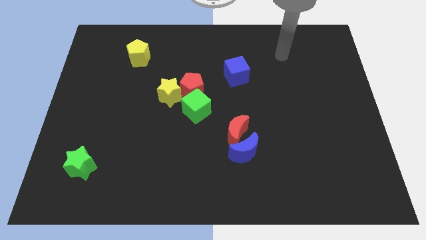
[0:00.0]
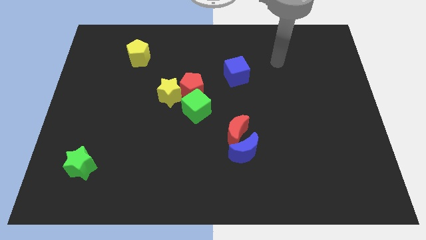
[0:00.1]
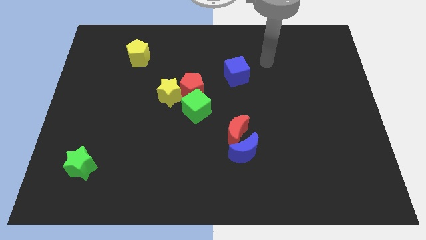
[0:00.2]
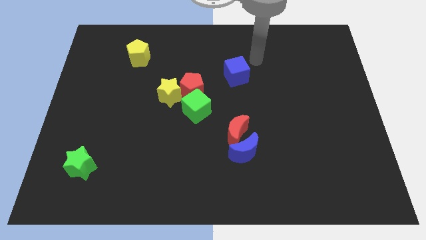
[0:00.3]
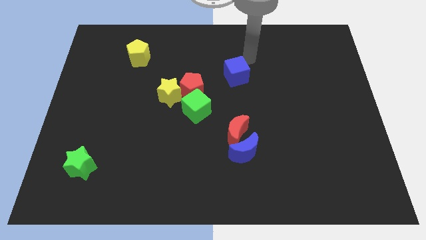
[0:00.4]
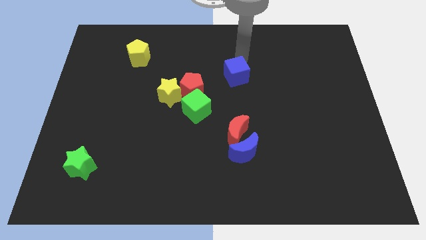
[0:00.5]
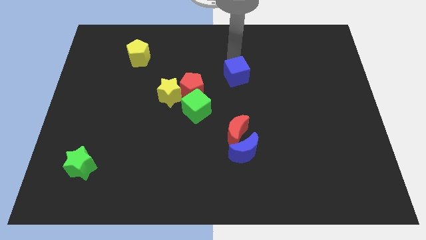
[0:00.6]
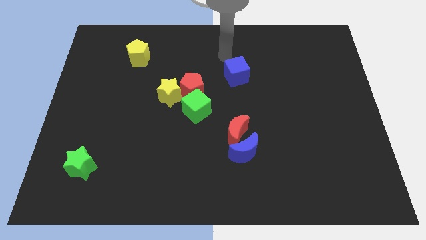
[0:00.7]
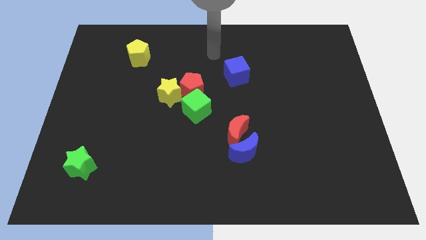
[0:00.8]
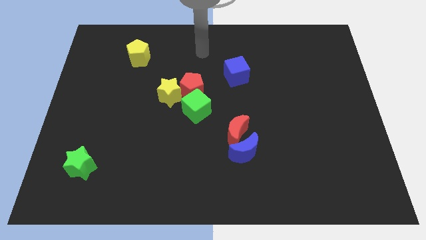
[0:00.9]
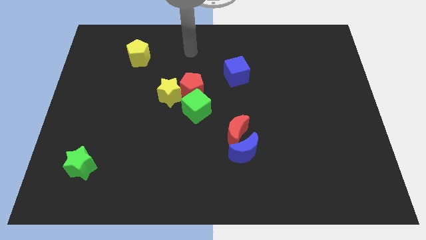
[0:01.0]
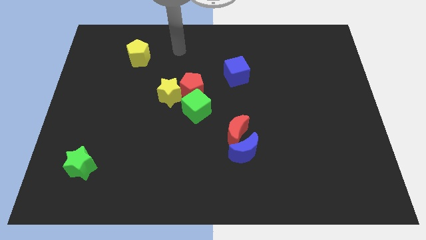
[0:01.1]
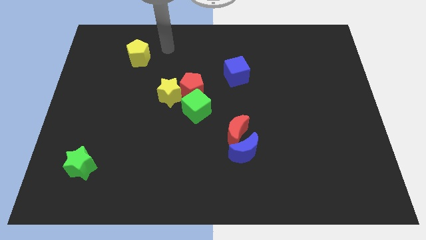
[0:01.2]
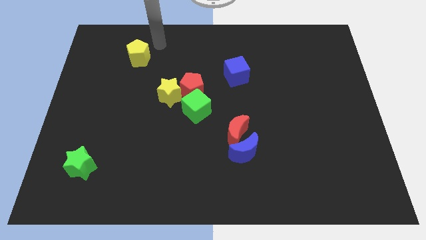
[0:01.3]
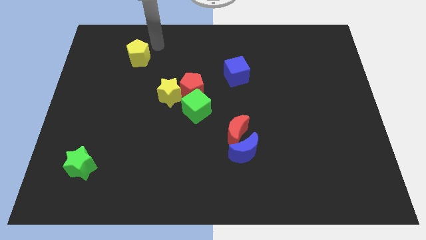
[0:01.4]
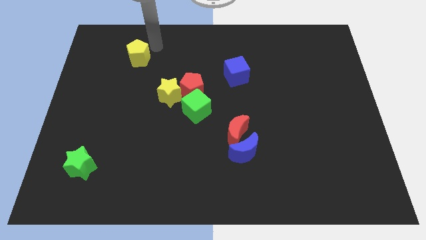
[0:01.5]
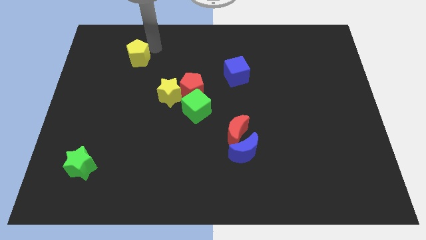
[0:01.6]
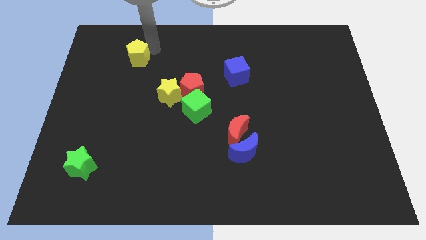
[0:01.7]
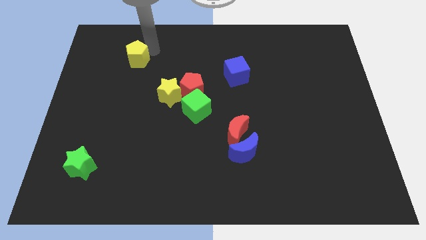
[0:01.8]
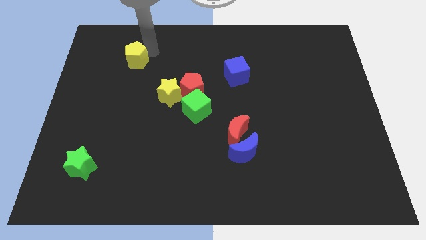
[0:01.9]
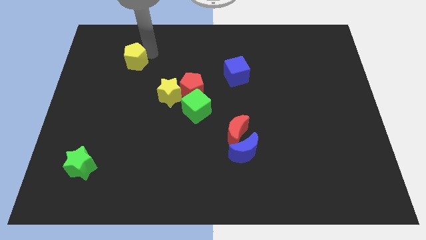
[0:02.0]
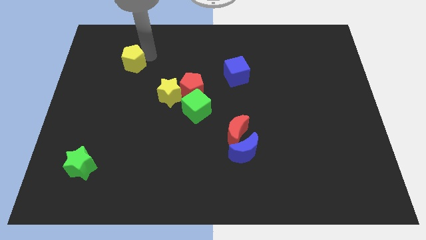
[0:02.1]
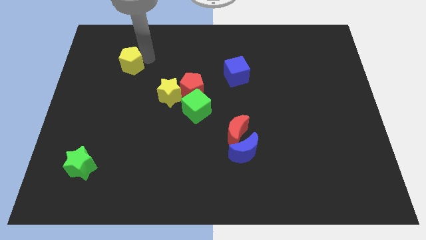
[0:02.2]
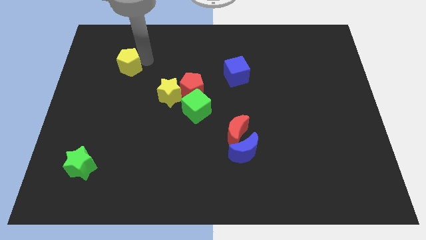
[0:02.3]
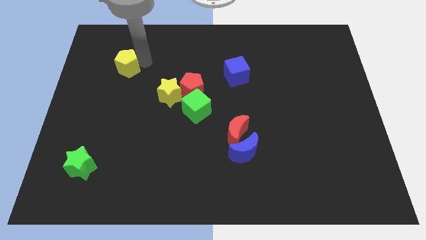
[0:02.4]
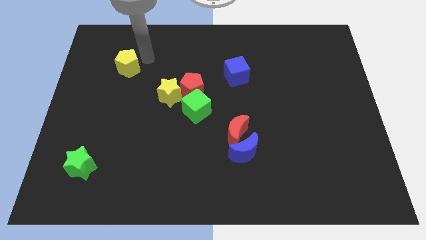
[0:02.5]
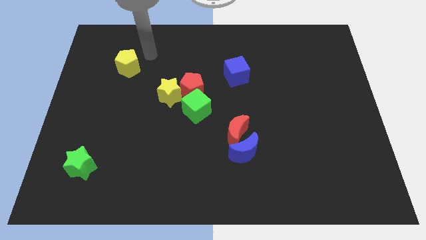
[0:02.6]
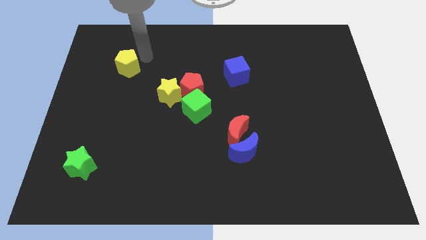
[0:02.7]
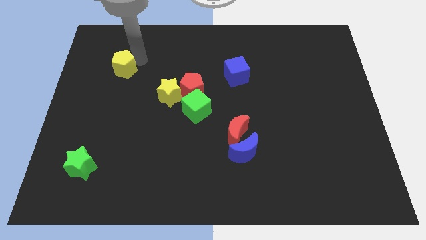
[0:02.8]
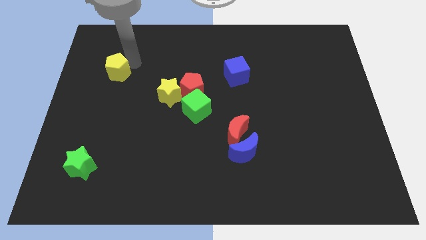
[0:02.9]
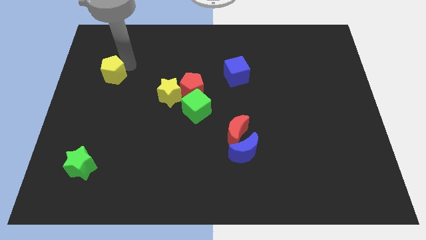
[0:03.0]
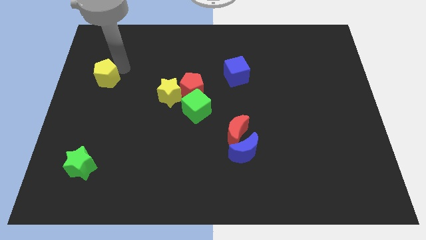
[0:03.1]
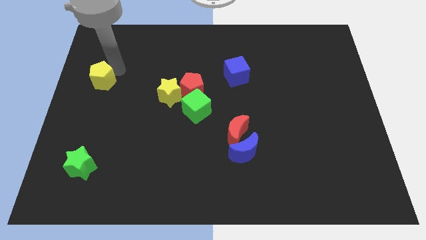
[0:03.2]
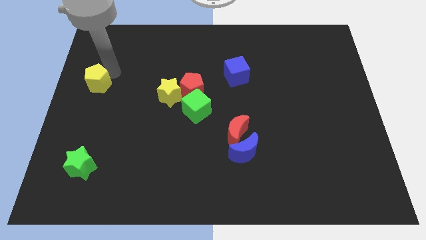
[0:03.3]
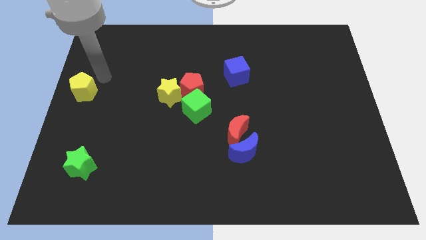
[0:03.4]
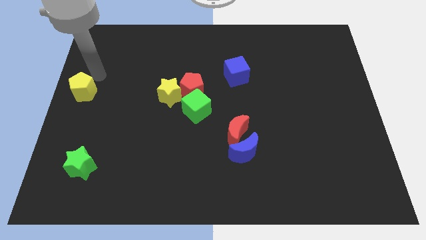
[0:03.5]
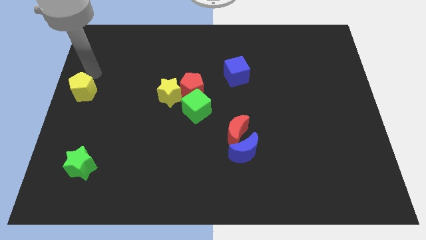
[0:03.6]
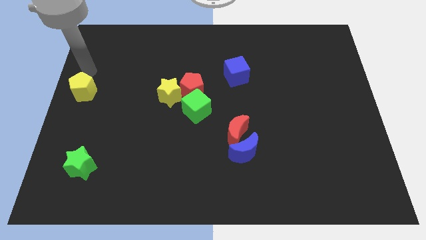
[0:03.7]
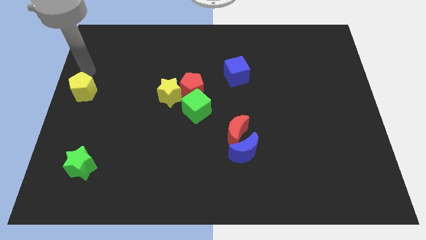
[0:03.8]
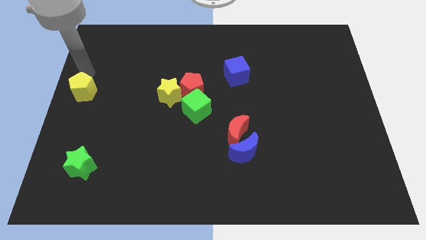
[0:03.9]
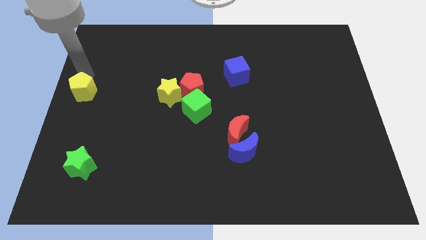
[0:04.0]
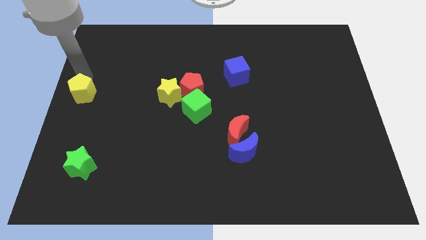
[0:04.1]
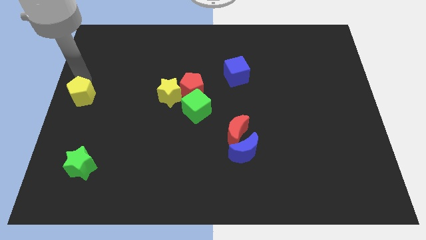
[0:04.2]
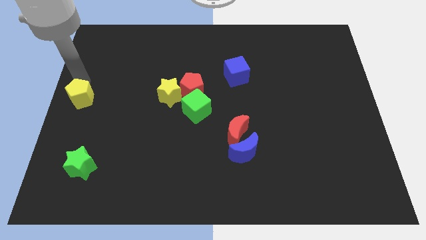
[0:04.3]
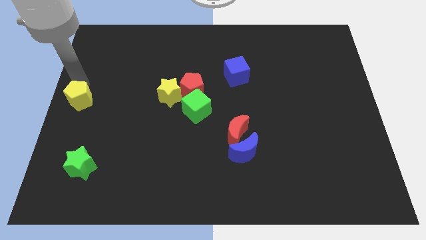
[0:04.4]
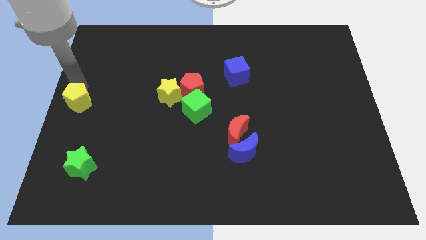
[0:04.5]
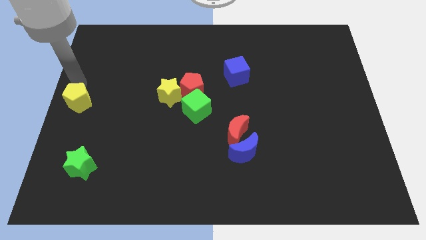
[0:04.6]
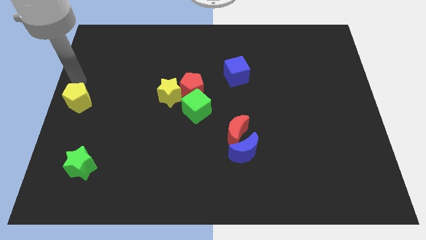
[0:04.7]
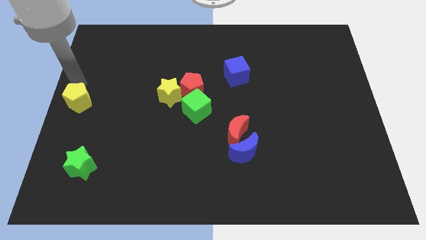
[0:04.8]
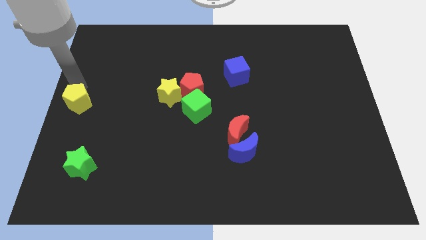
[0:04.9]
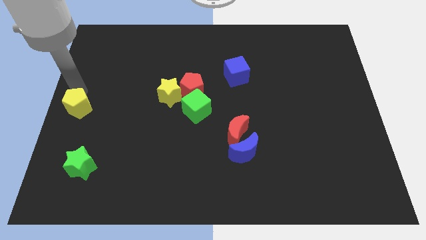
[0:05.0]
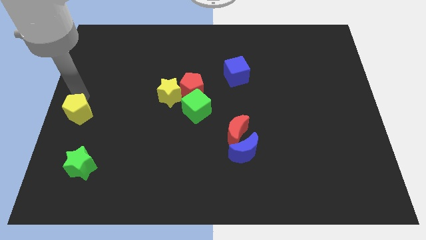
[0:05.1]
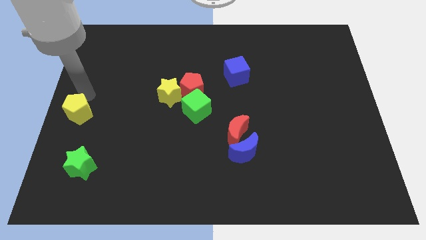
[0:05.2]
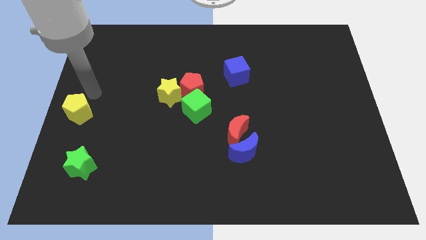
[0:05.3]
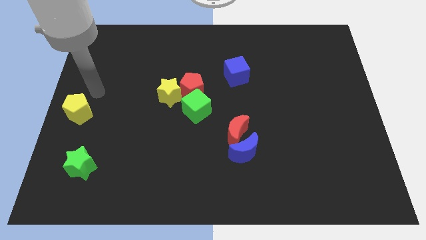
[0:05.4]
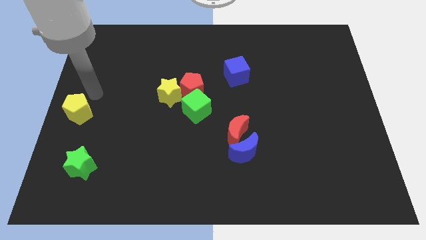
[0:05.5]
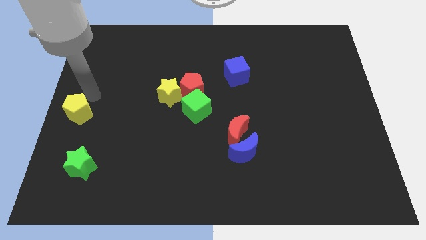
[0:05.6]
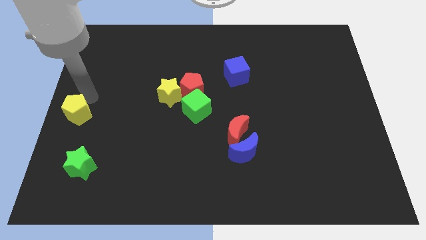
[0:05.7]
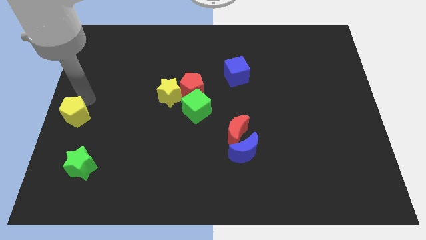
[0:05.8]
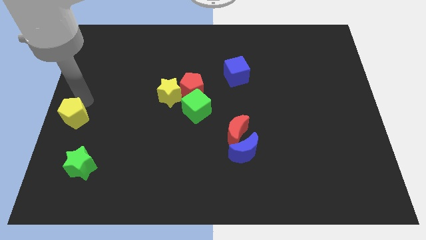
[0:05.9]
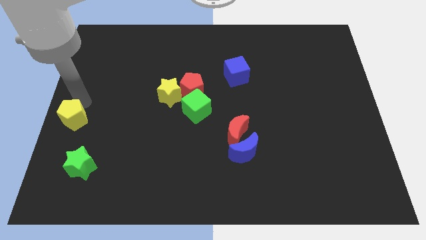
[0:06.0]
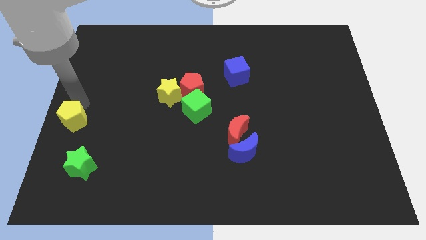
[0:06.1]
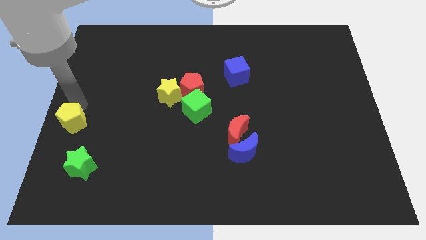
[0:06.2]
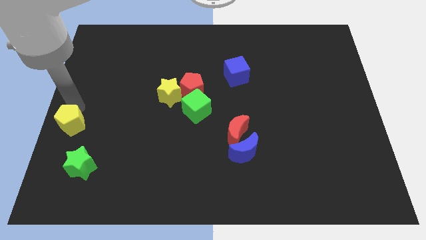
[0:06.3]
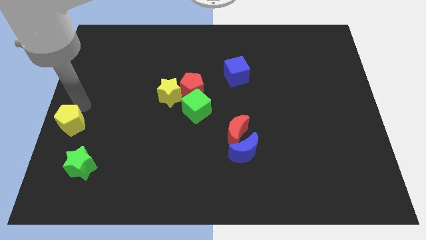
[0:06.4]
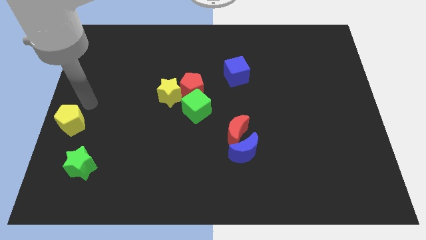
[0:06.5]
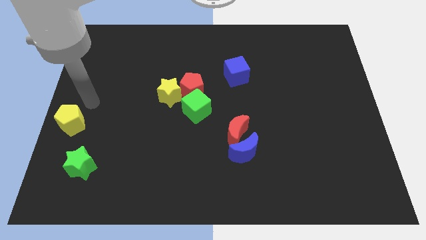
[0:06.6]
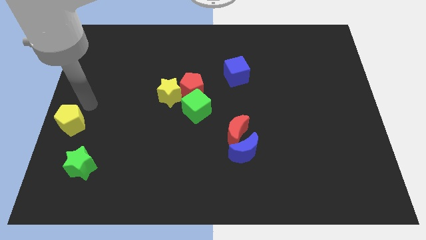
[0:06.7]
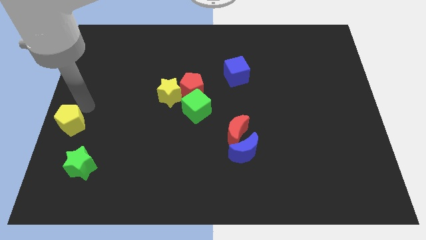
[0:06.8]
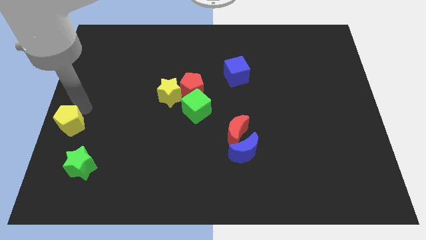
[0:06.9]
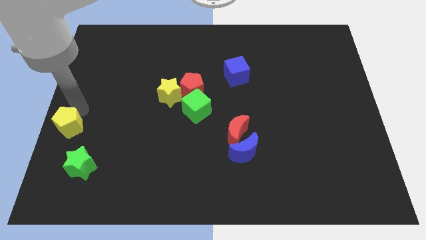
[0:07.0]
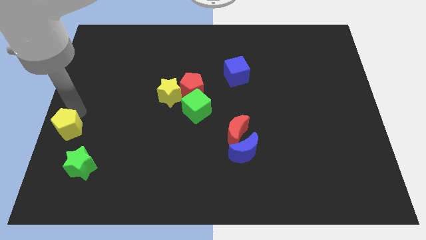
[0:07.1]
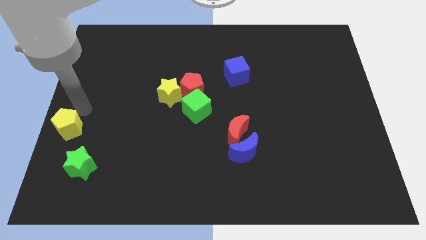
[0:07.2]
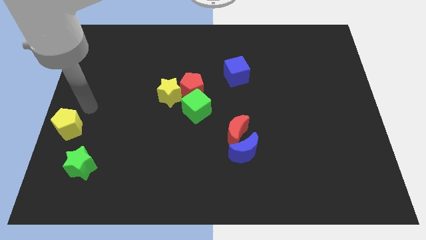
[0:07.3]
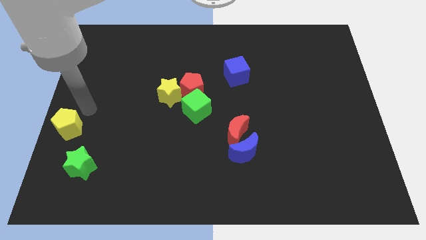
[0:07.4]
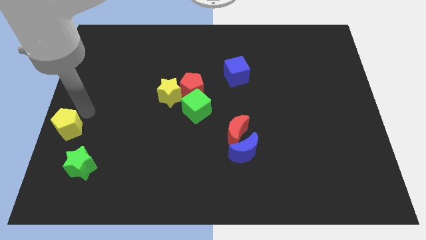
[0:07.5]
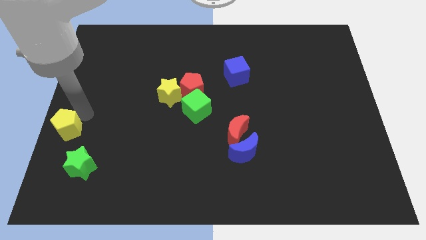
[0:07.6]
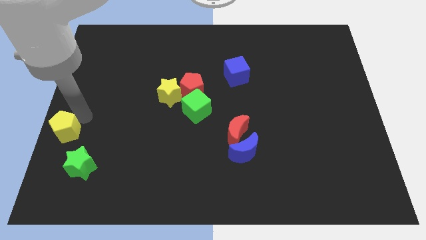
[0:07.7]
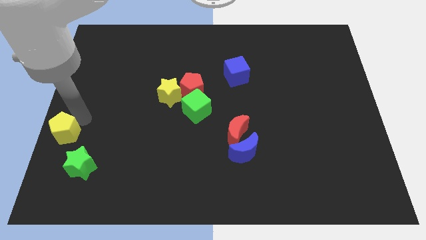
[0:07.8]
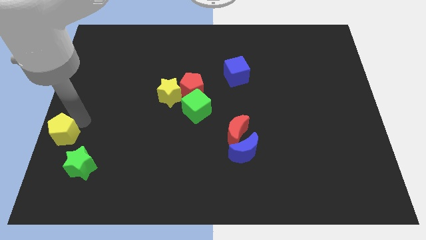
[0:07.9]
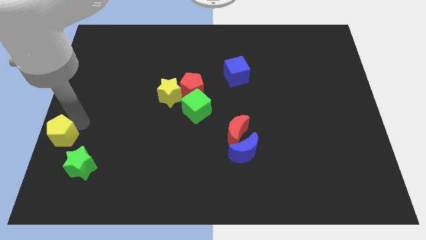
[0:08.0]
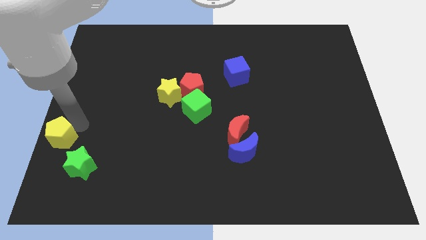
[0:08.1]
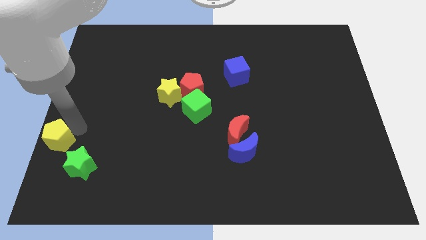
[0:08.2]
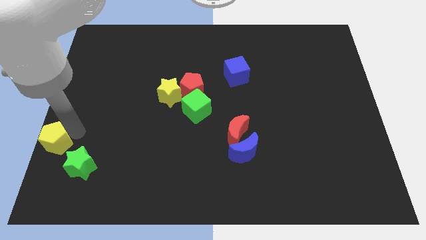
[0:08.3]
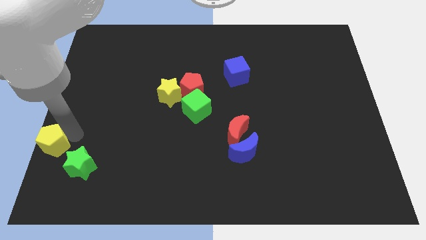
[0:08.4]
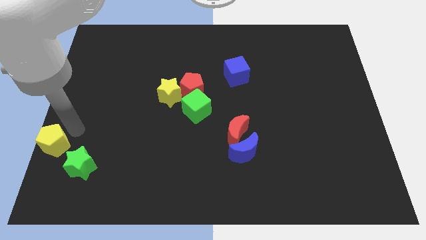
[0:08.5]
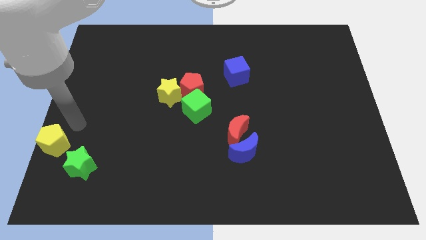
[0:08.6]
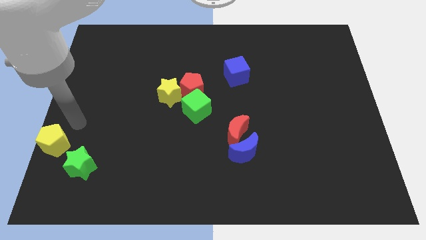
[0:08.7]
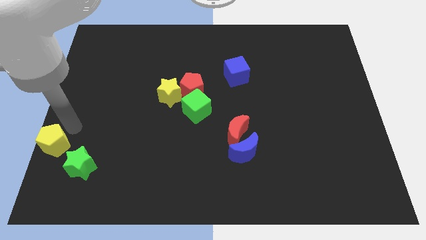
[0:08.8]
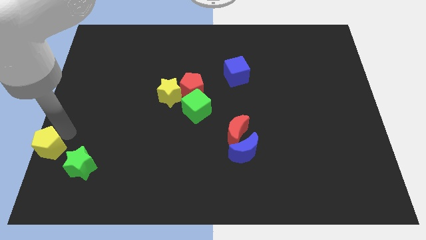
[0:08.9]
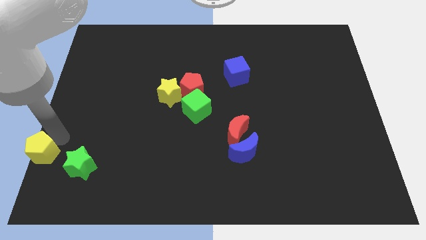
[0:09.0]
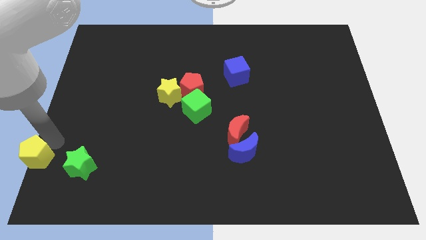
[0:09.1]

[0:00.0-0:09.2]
slide the yellow pentagon to the lower left corner
